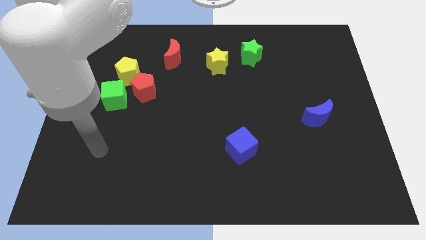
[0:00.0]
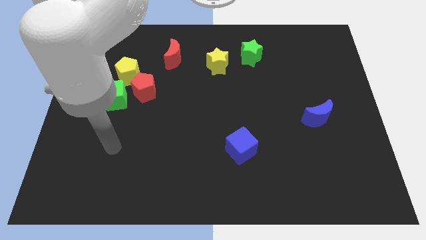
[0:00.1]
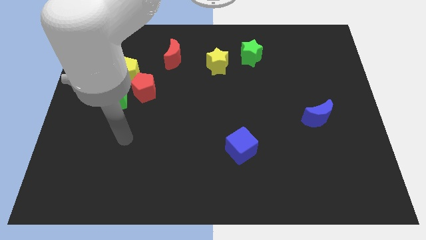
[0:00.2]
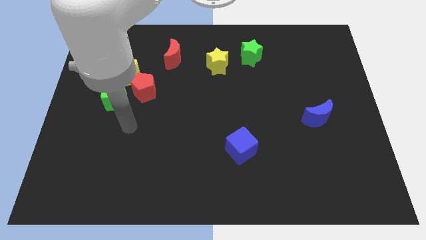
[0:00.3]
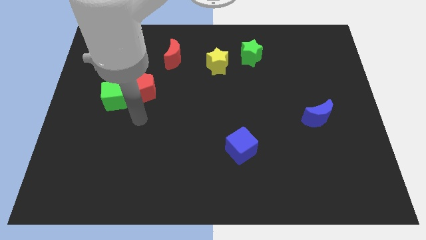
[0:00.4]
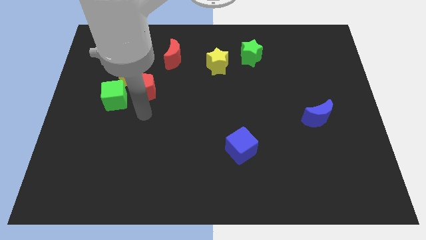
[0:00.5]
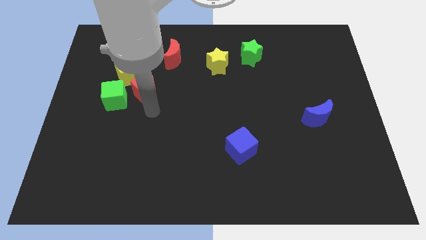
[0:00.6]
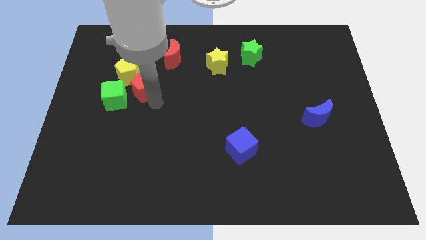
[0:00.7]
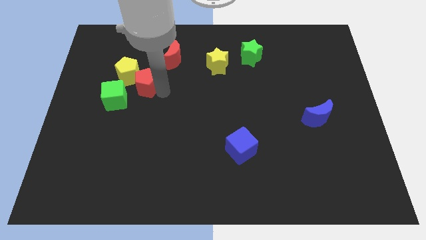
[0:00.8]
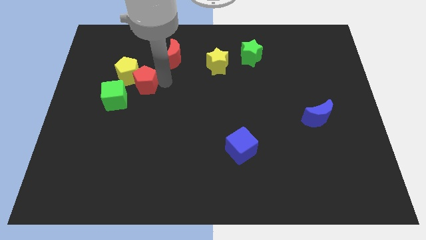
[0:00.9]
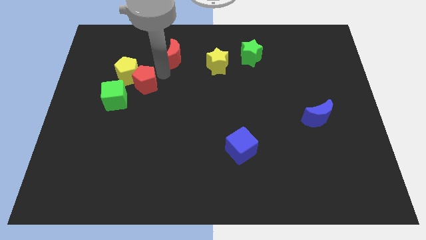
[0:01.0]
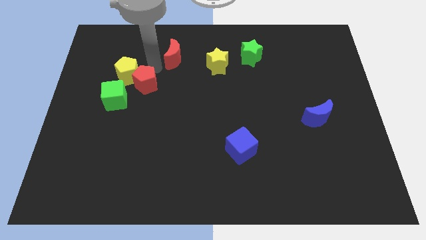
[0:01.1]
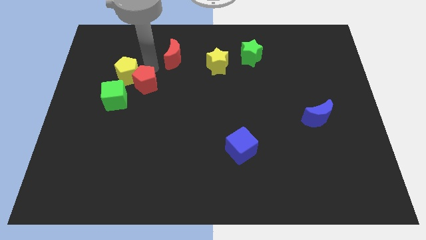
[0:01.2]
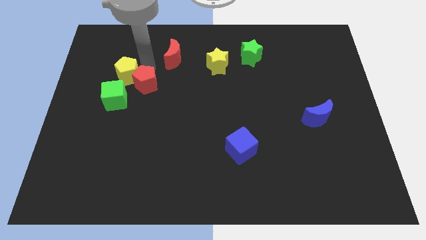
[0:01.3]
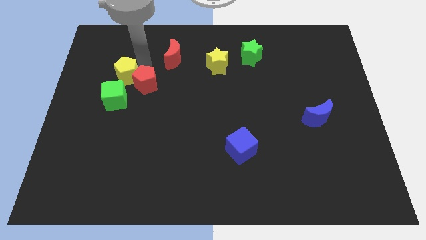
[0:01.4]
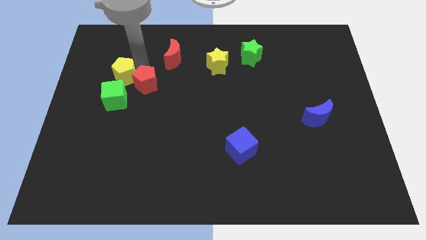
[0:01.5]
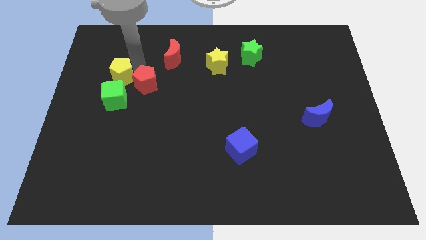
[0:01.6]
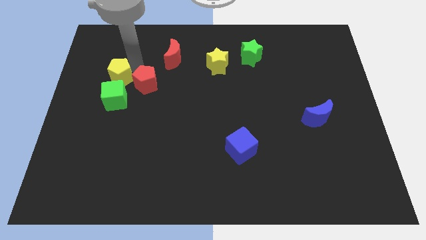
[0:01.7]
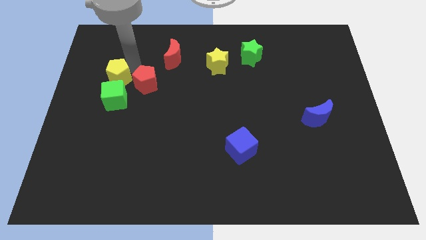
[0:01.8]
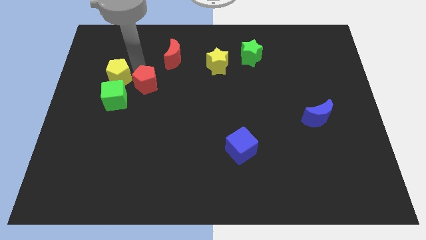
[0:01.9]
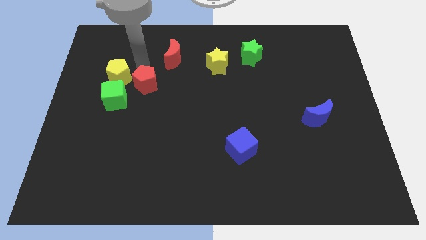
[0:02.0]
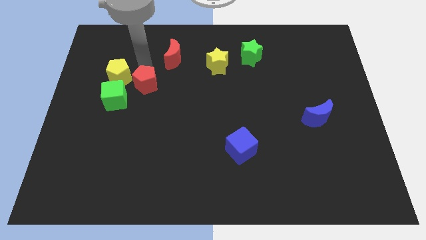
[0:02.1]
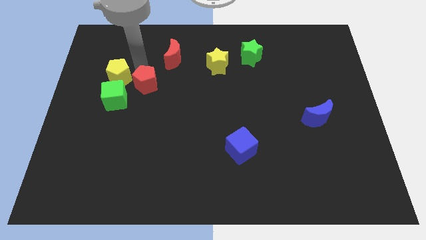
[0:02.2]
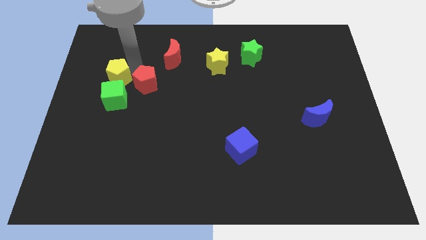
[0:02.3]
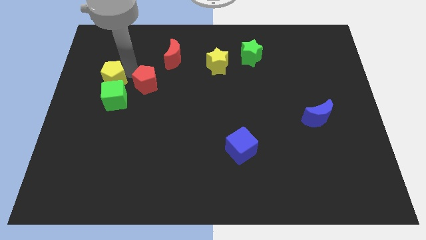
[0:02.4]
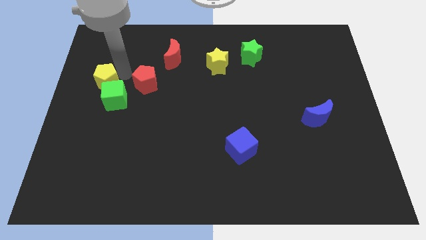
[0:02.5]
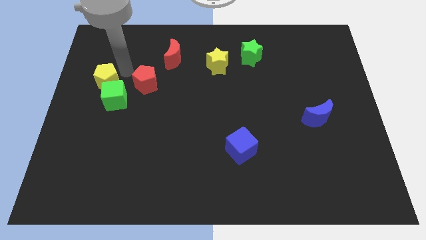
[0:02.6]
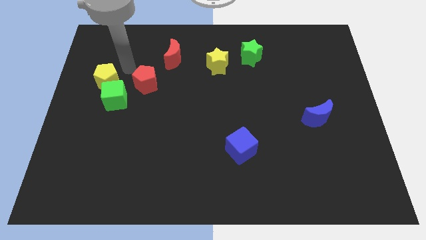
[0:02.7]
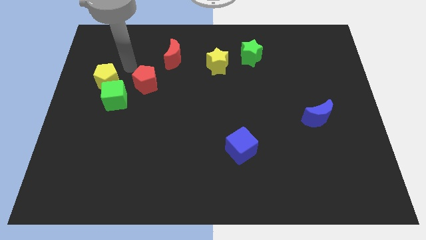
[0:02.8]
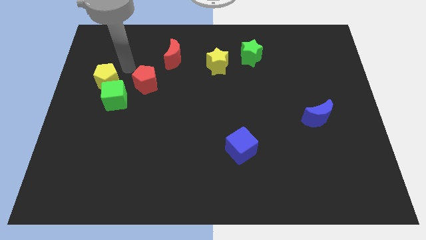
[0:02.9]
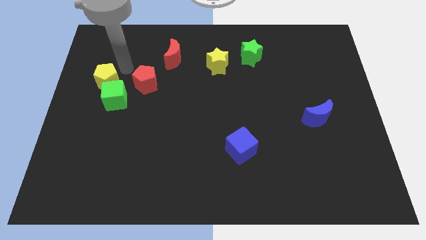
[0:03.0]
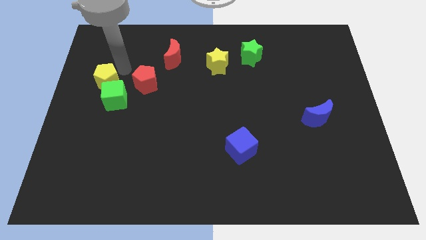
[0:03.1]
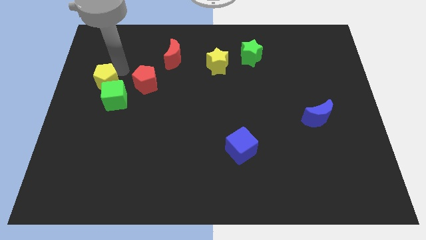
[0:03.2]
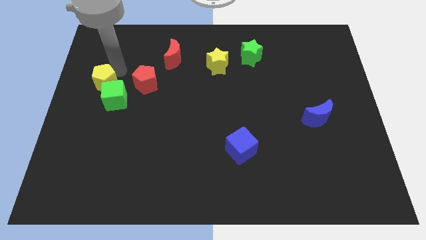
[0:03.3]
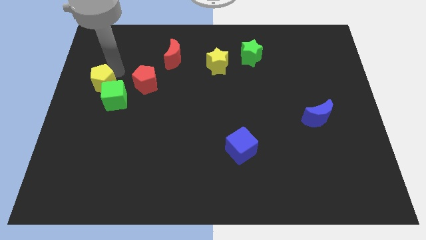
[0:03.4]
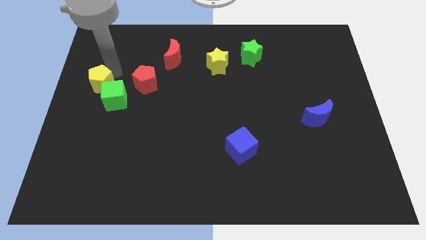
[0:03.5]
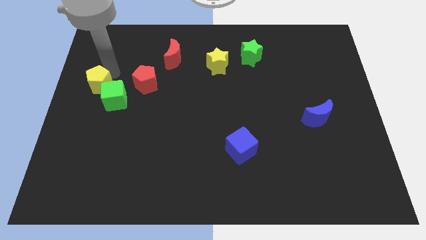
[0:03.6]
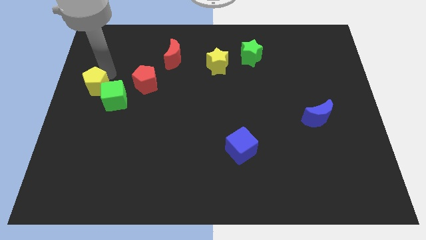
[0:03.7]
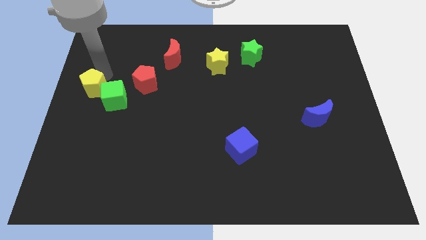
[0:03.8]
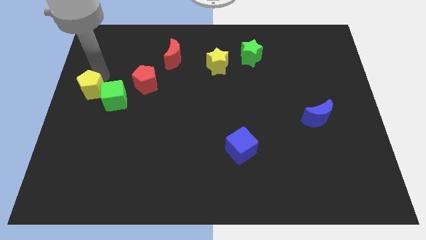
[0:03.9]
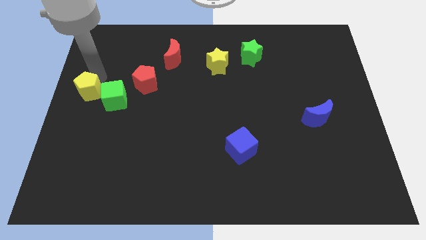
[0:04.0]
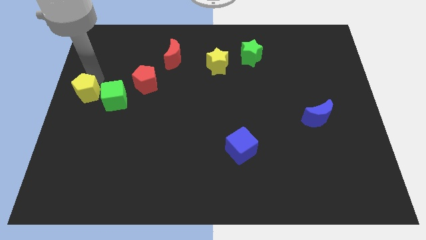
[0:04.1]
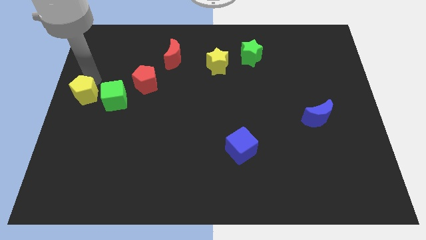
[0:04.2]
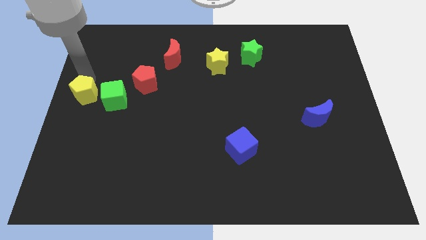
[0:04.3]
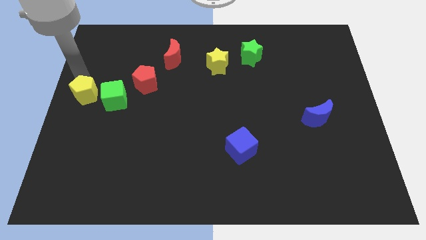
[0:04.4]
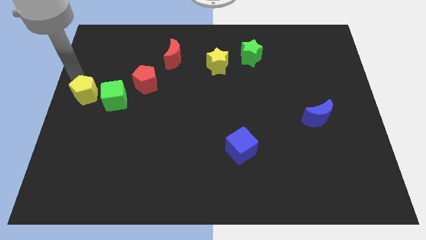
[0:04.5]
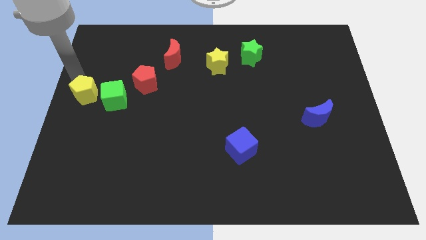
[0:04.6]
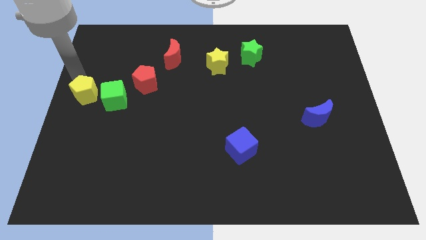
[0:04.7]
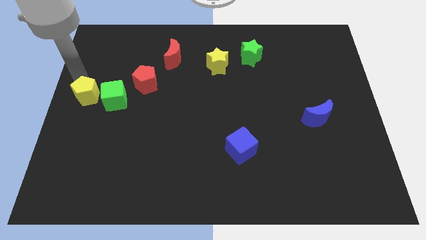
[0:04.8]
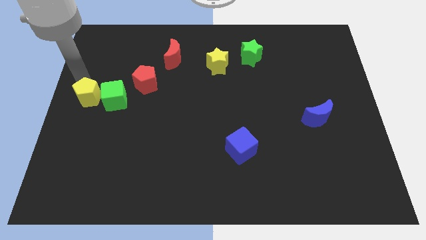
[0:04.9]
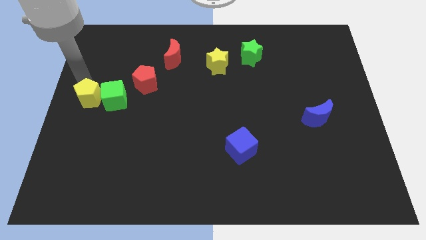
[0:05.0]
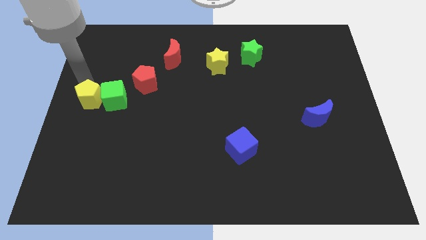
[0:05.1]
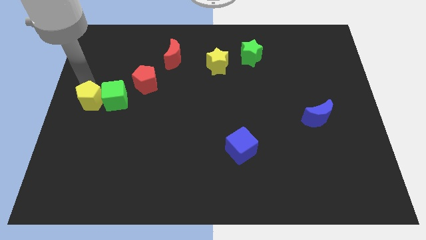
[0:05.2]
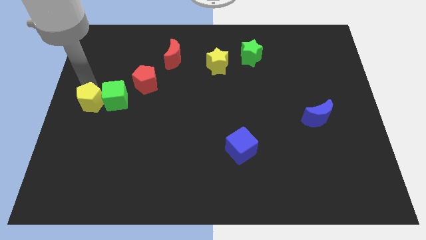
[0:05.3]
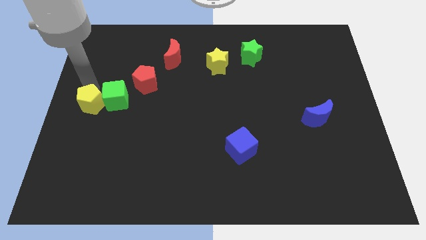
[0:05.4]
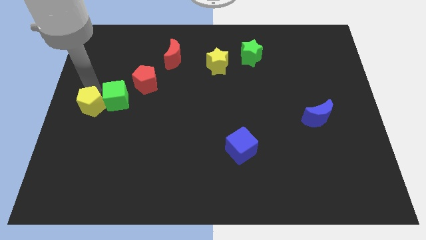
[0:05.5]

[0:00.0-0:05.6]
slide the yellow pentagon downwards a bit

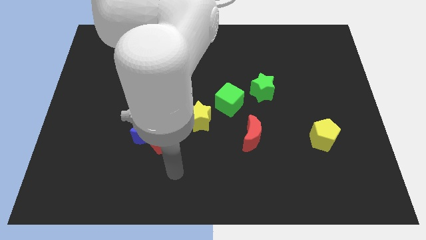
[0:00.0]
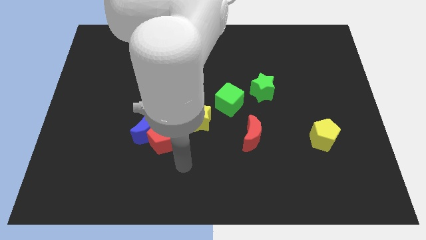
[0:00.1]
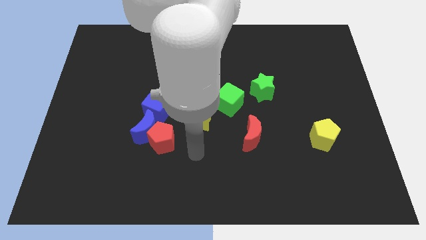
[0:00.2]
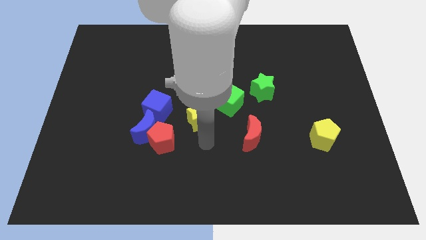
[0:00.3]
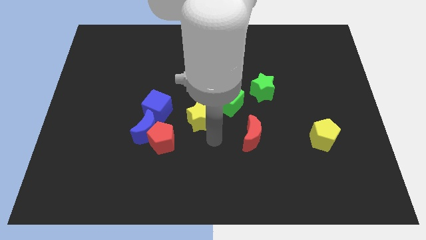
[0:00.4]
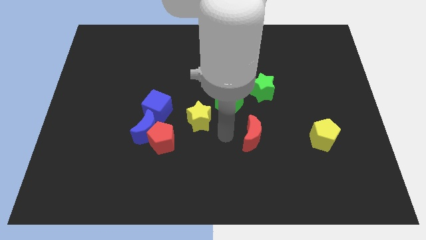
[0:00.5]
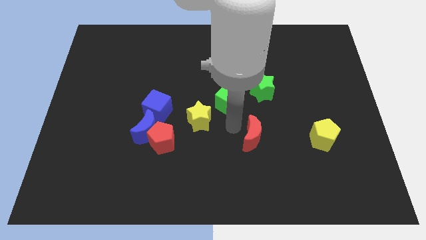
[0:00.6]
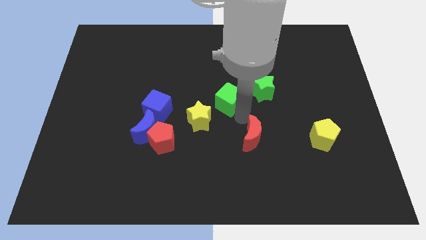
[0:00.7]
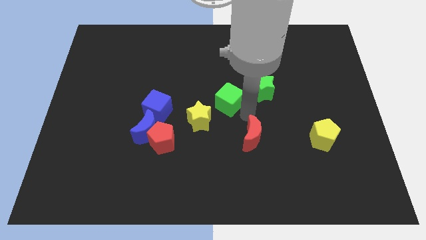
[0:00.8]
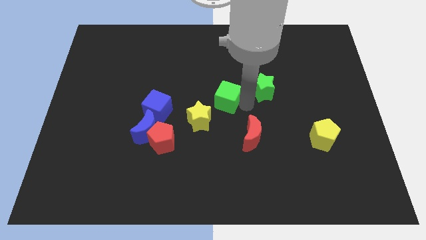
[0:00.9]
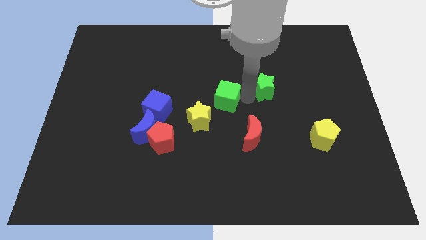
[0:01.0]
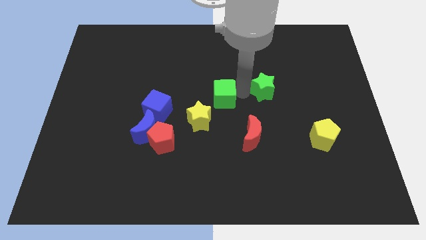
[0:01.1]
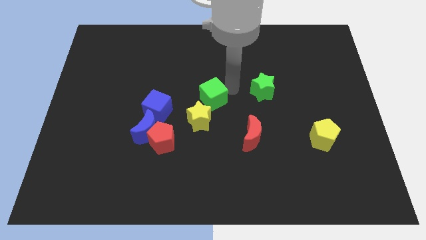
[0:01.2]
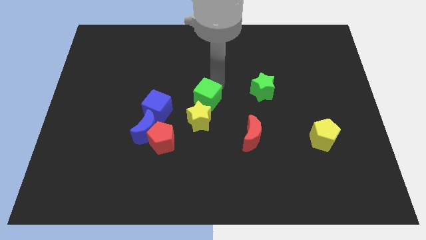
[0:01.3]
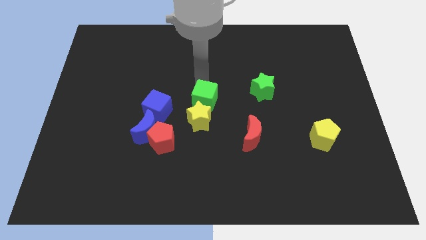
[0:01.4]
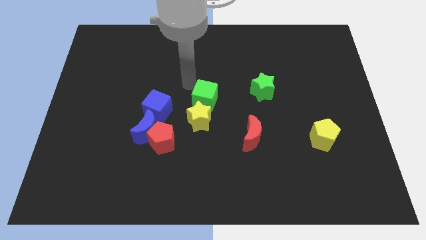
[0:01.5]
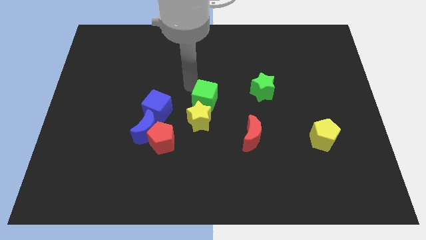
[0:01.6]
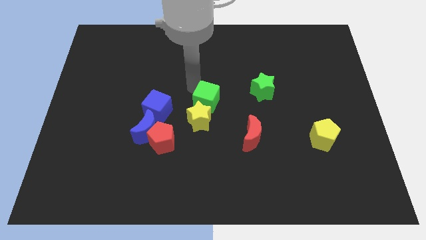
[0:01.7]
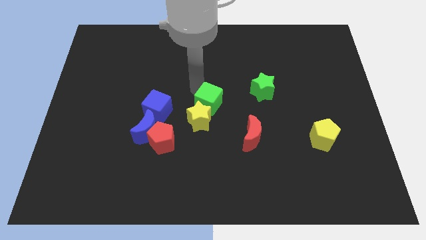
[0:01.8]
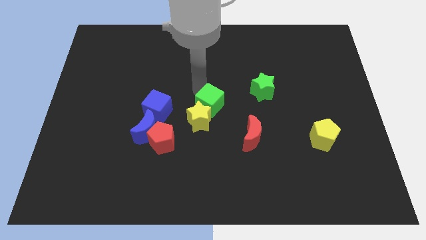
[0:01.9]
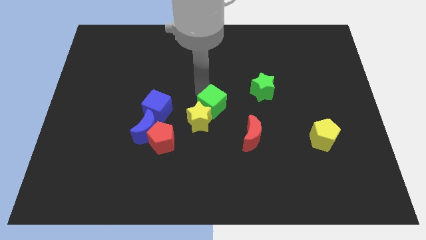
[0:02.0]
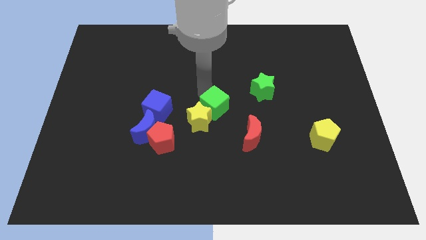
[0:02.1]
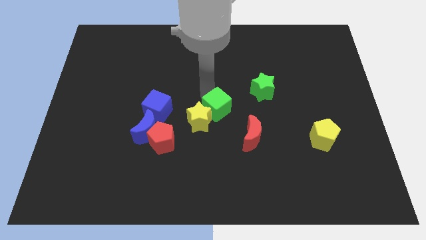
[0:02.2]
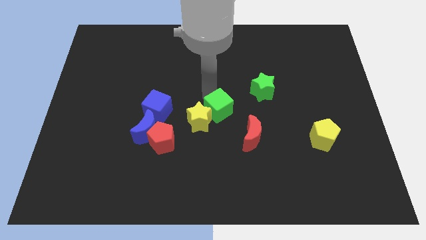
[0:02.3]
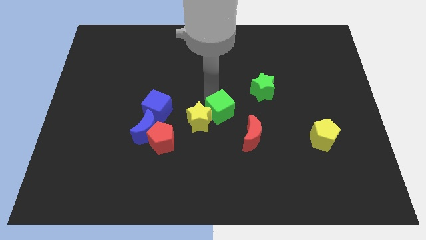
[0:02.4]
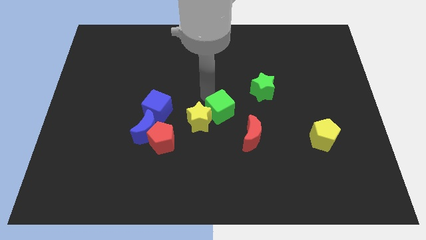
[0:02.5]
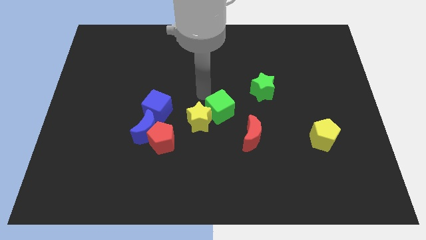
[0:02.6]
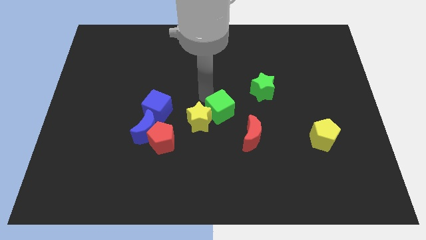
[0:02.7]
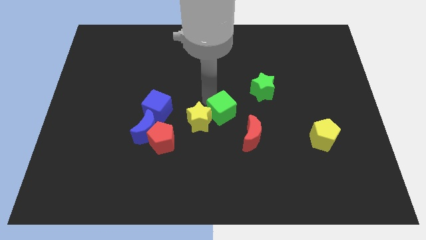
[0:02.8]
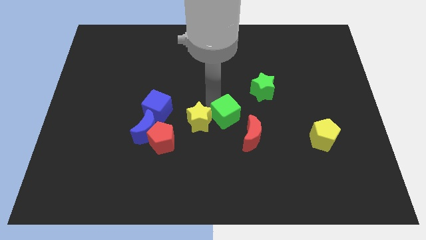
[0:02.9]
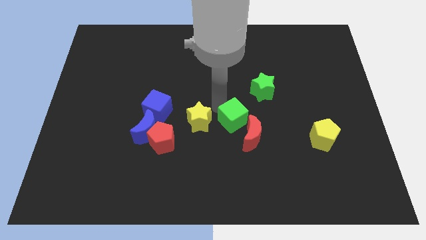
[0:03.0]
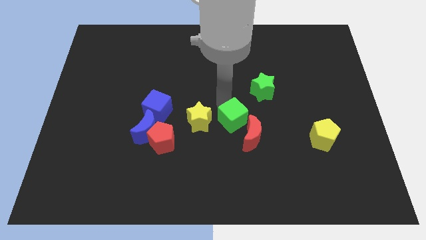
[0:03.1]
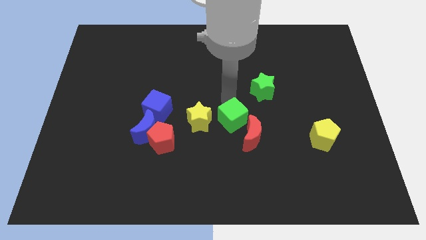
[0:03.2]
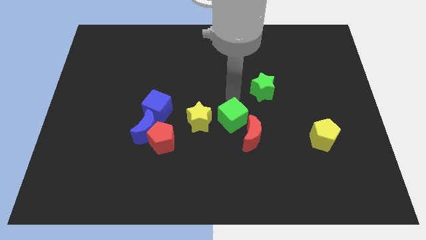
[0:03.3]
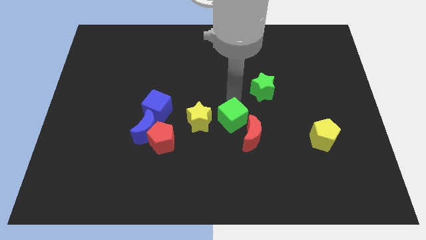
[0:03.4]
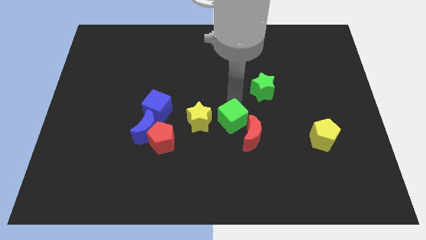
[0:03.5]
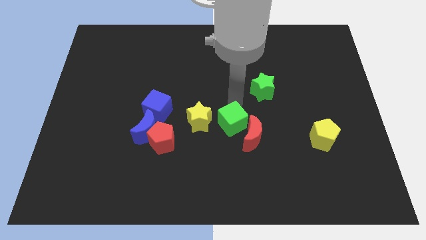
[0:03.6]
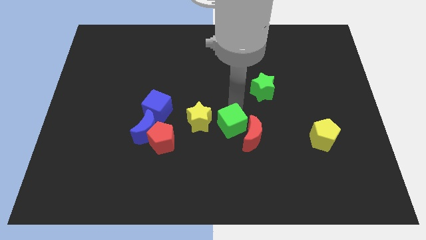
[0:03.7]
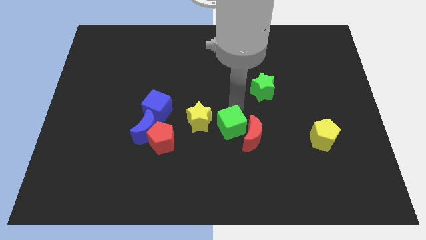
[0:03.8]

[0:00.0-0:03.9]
slide the green cube downwards a bit
